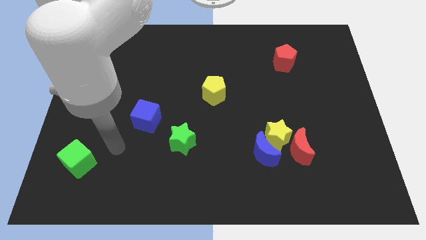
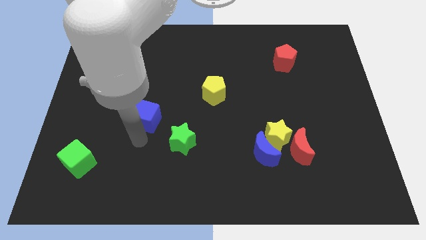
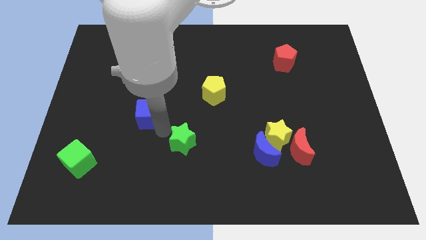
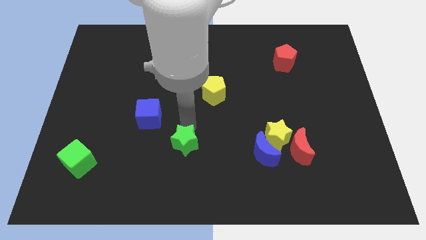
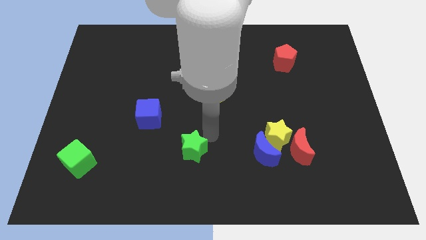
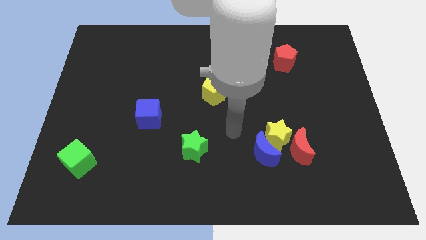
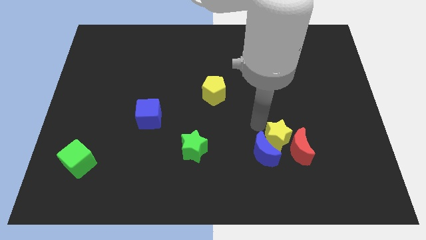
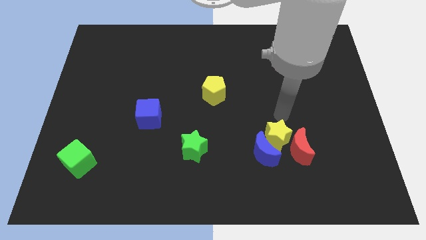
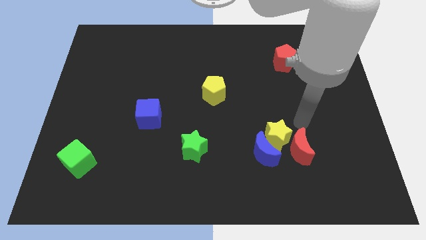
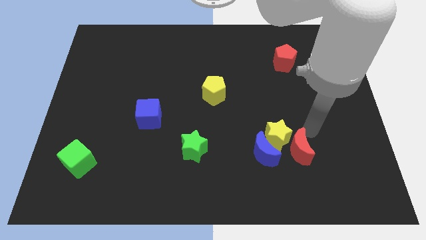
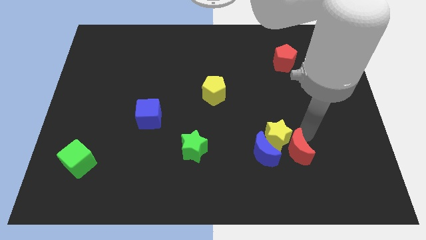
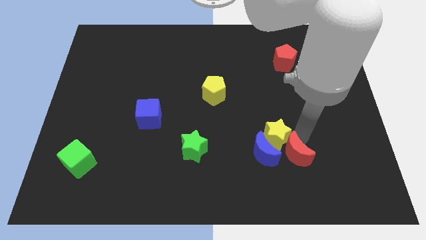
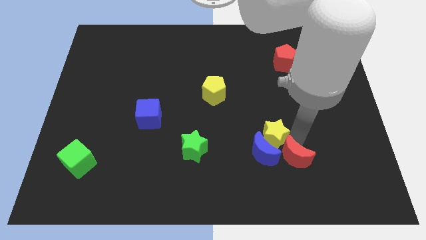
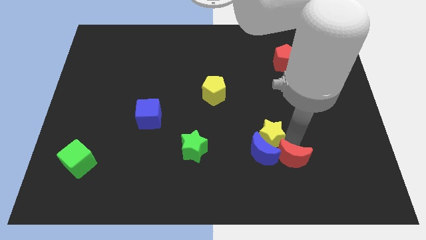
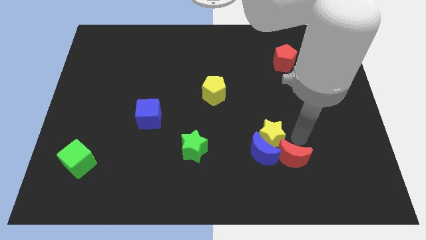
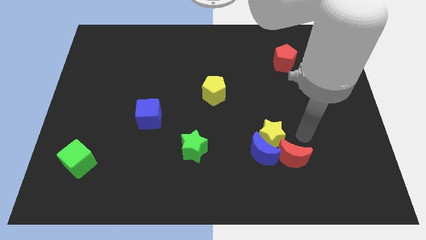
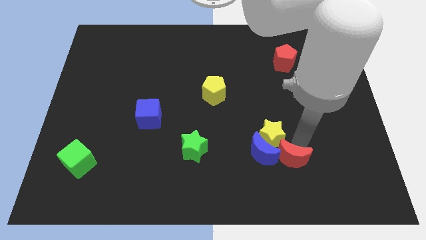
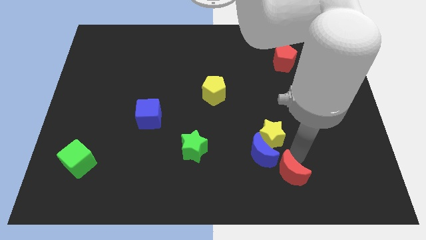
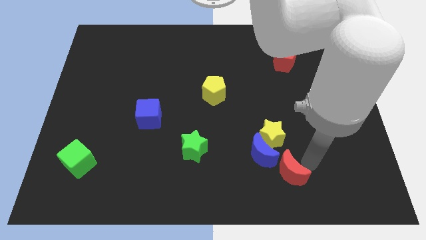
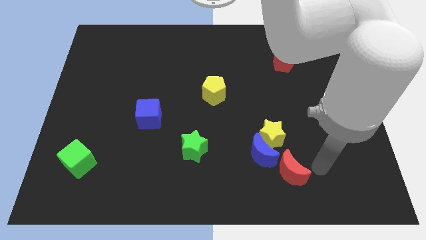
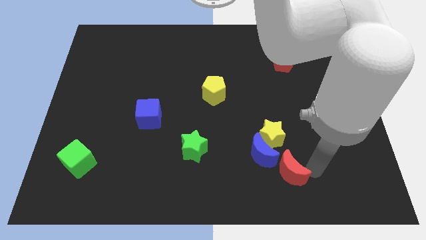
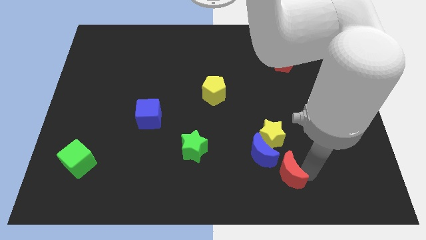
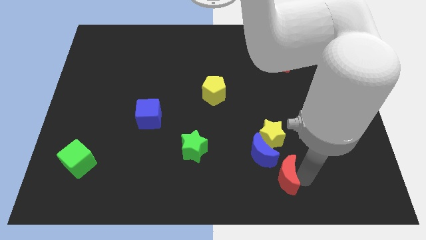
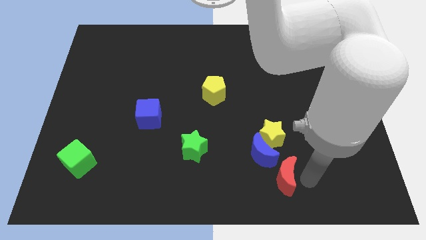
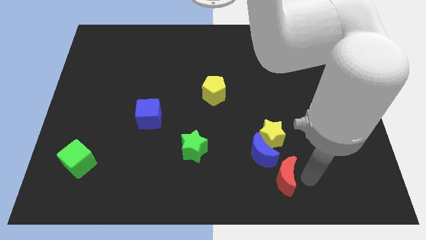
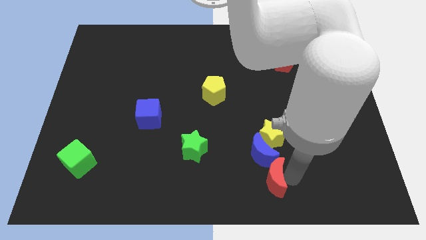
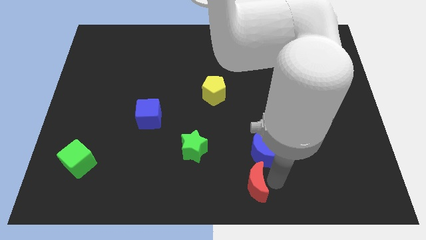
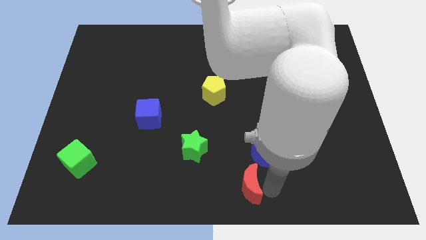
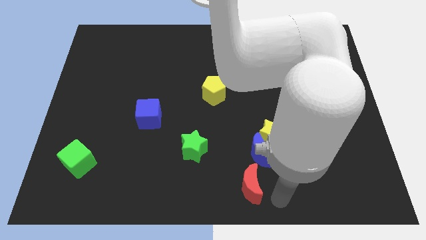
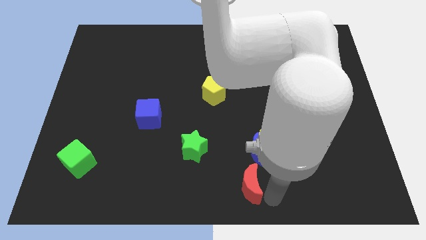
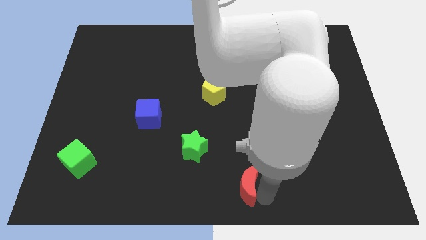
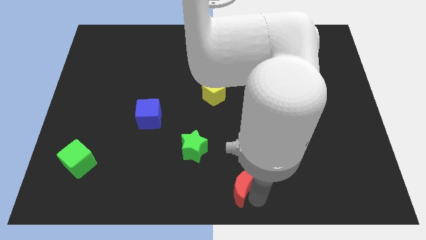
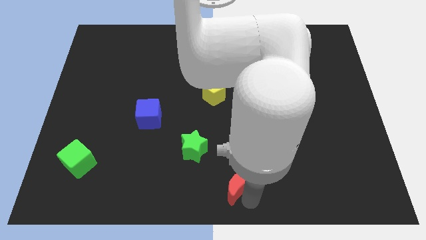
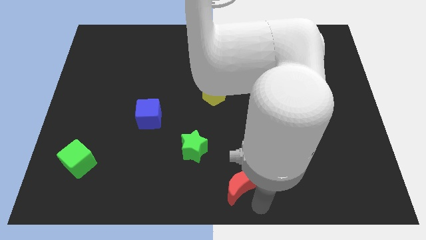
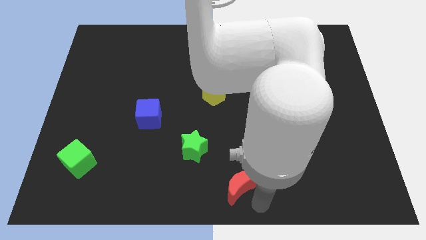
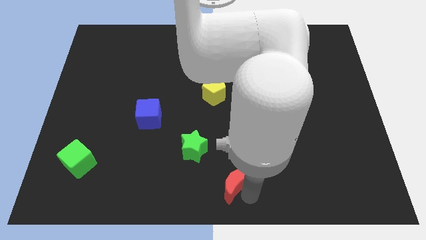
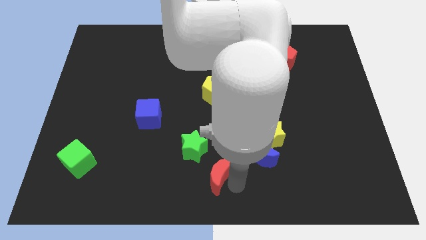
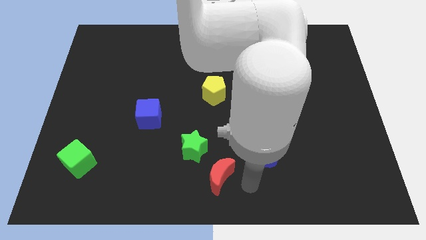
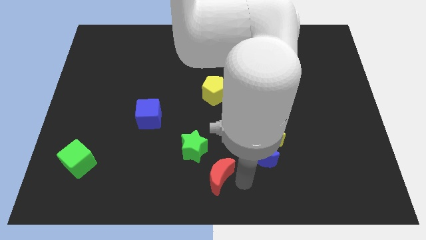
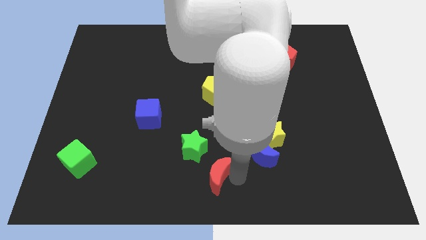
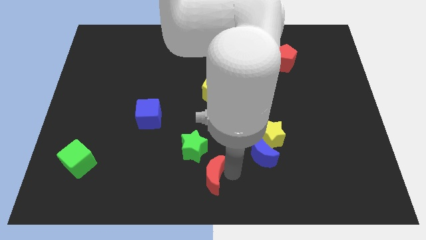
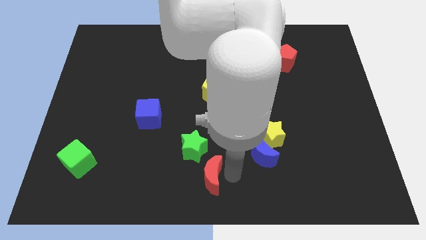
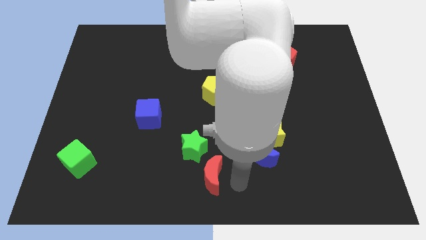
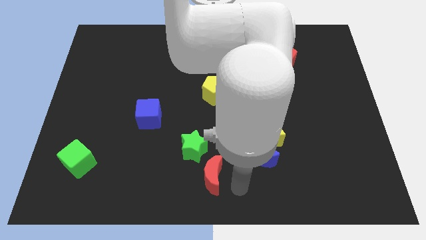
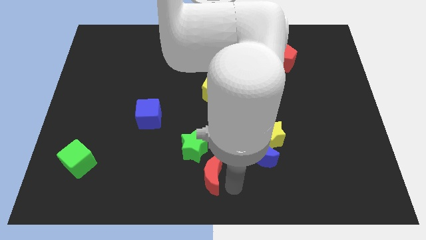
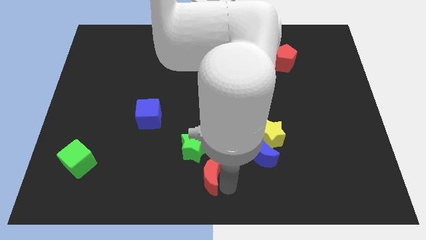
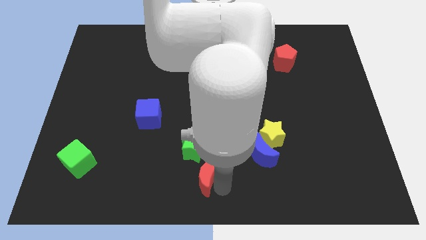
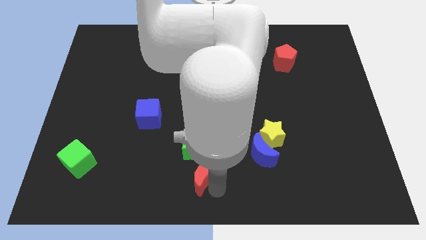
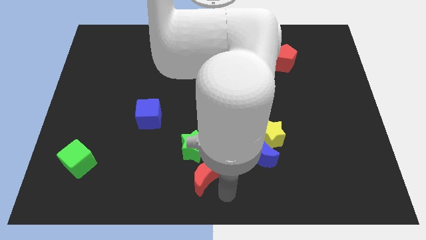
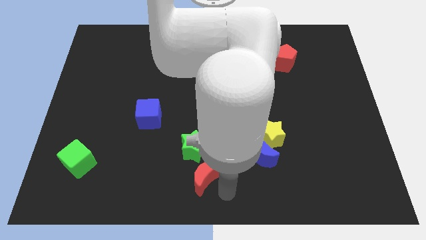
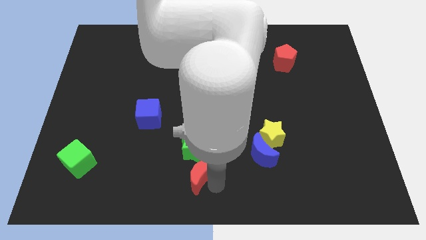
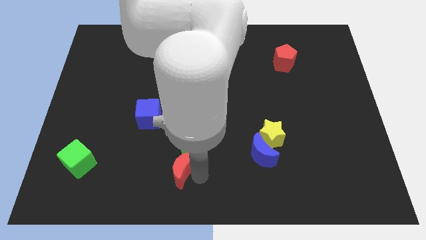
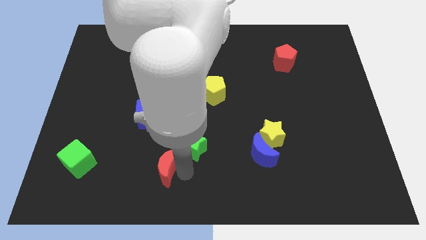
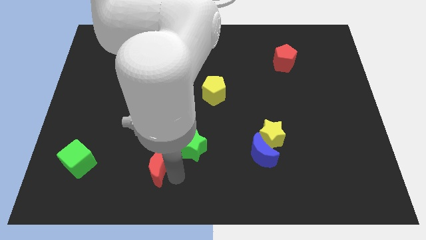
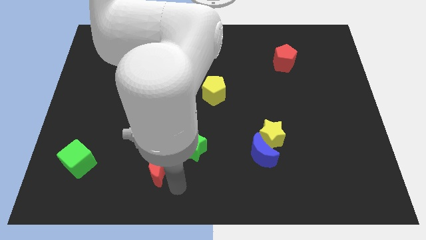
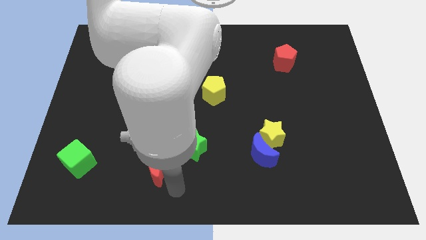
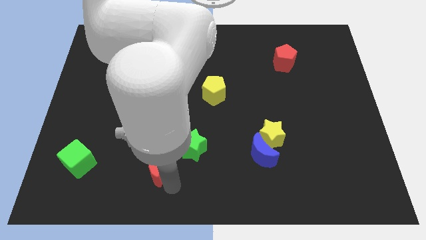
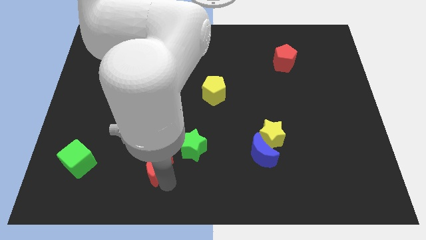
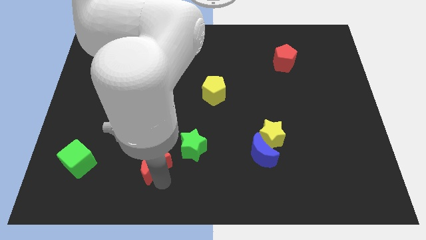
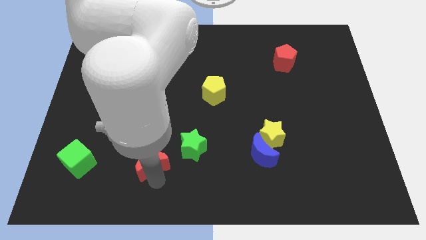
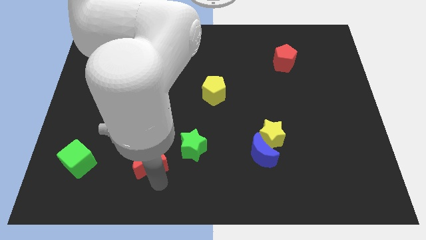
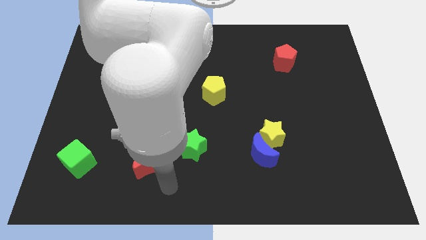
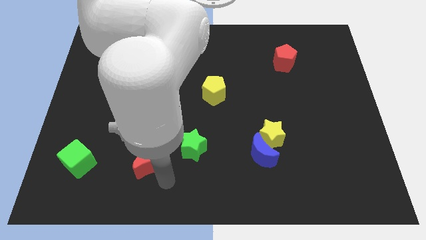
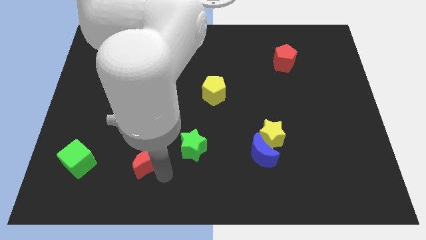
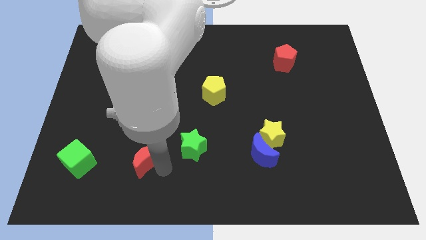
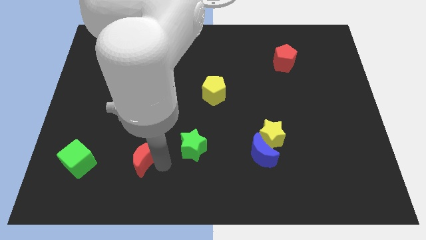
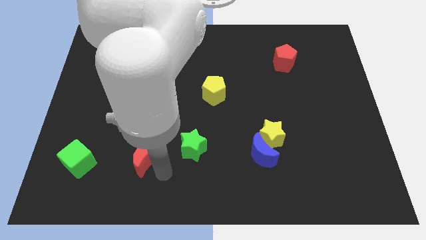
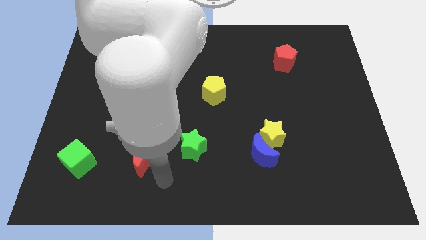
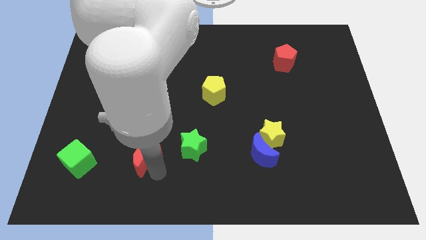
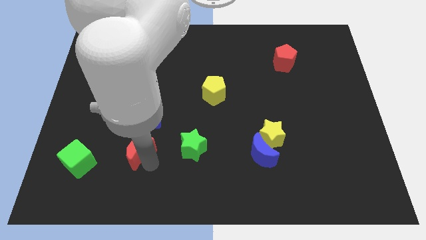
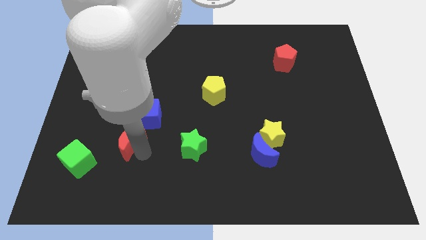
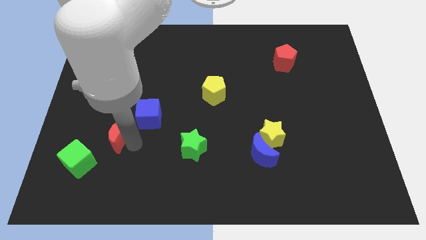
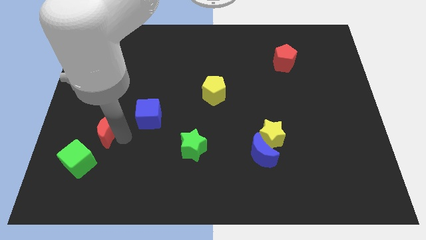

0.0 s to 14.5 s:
push the red moon to the top side of the green cube

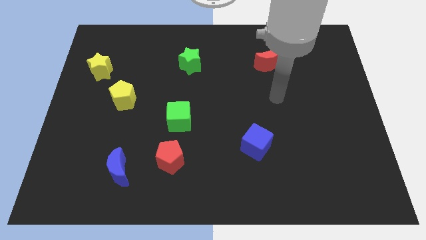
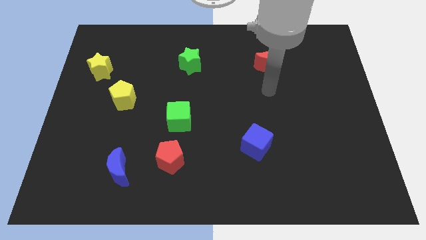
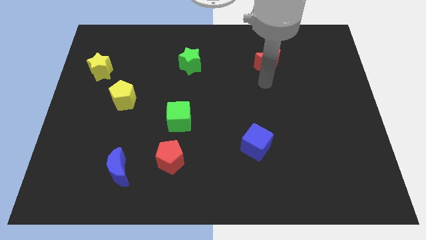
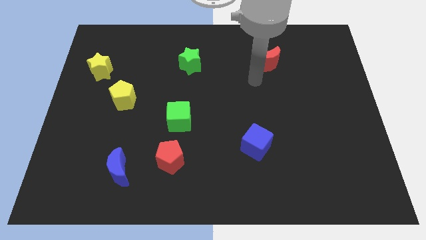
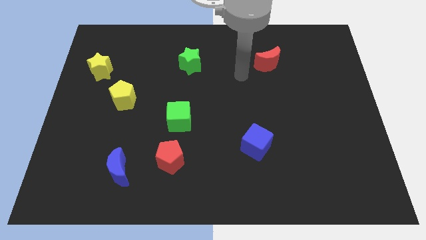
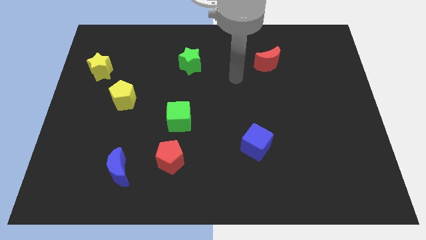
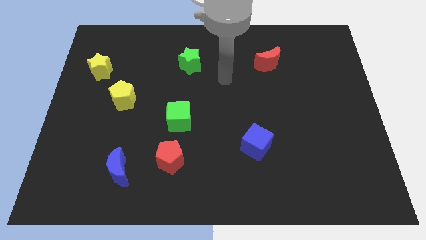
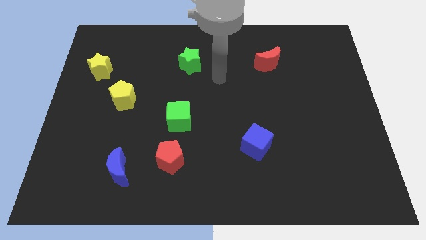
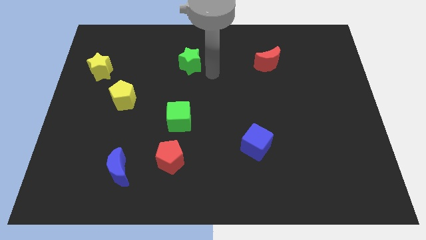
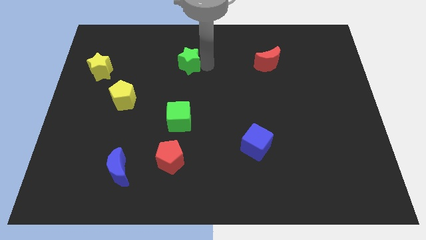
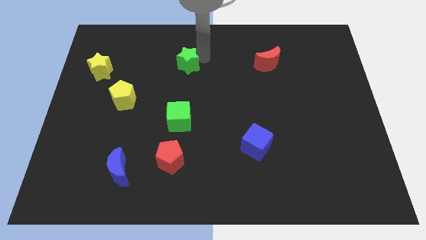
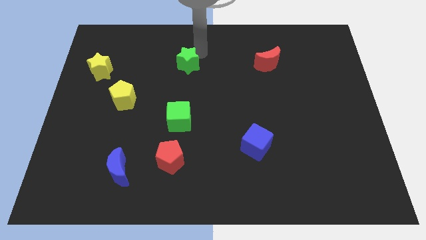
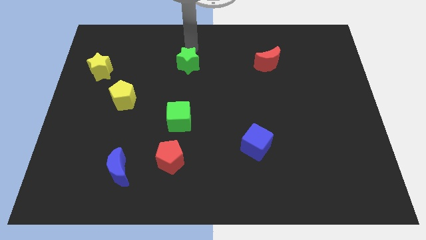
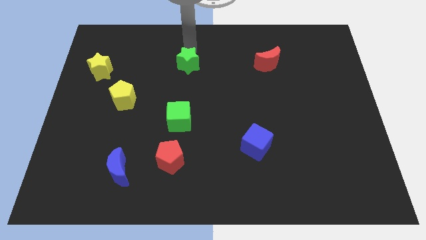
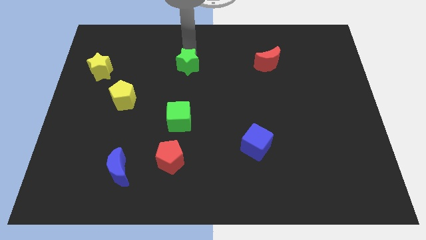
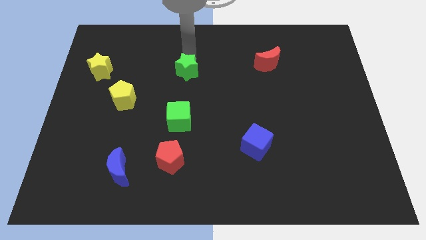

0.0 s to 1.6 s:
put the green star to the top side of the green cube
